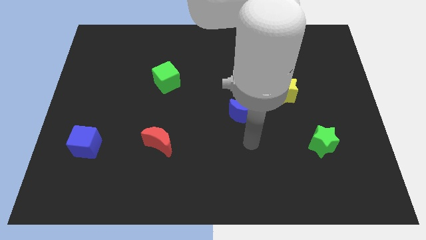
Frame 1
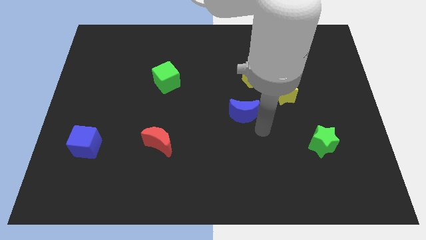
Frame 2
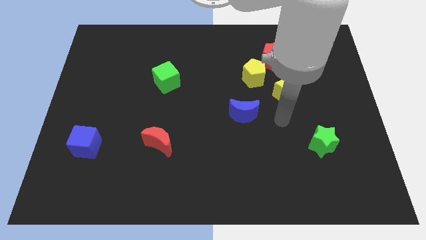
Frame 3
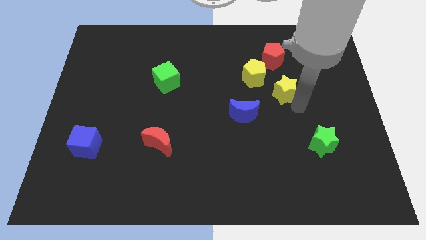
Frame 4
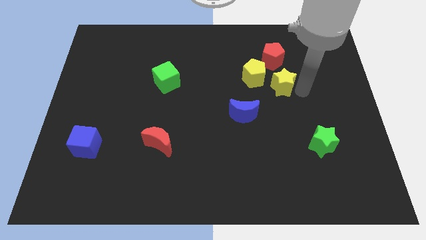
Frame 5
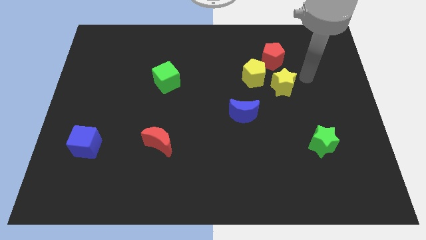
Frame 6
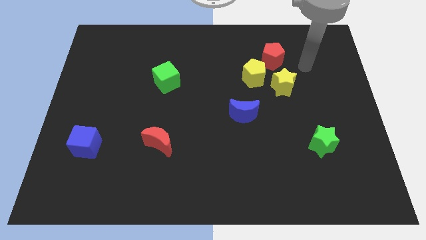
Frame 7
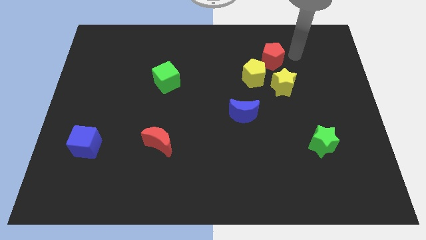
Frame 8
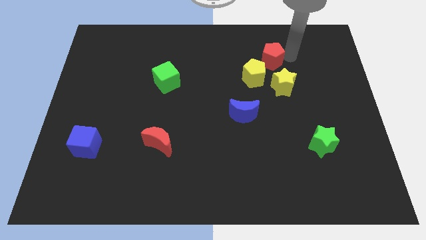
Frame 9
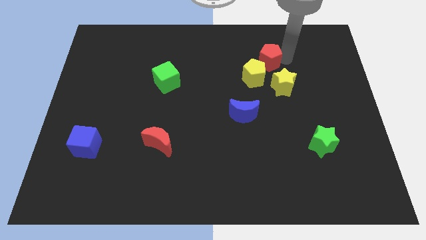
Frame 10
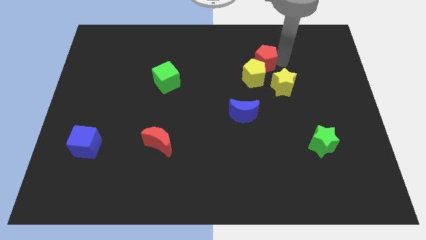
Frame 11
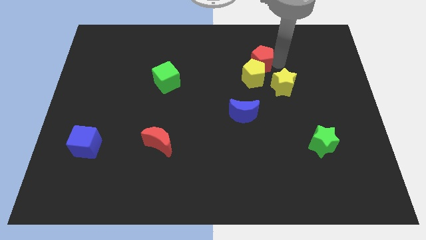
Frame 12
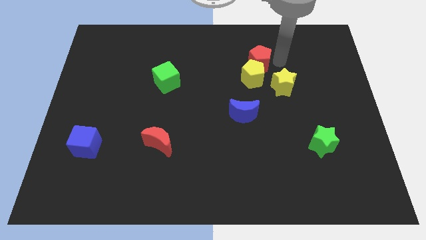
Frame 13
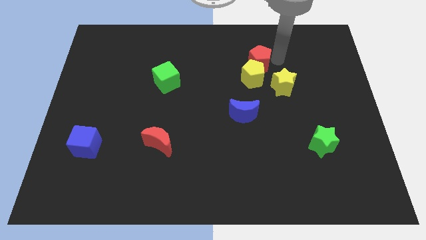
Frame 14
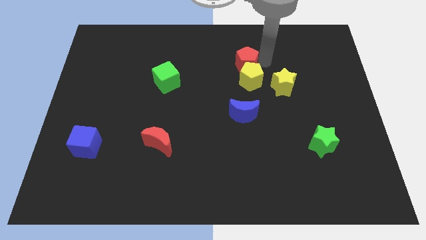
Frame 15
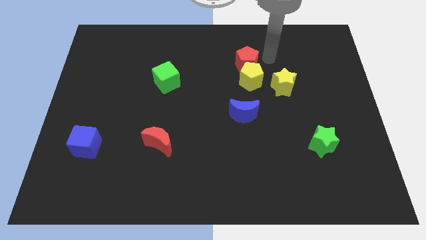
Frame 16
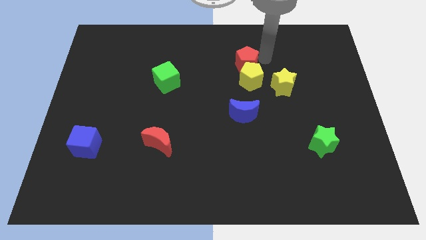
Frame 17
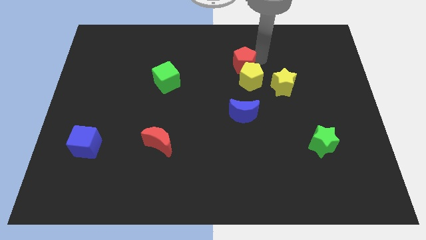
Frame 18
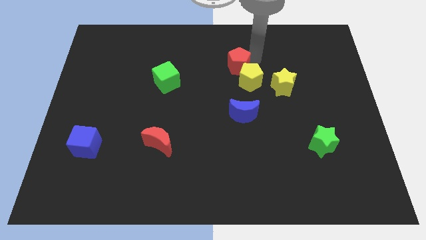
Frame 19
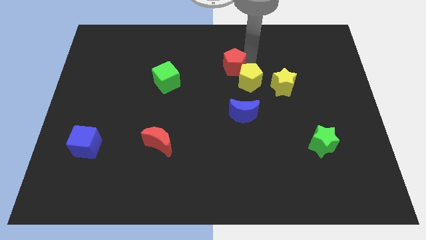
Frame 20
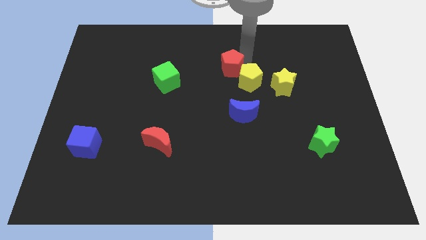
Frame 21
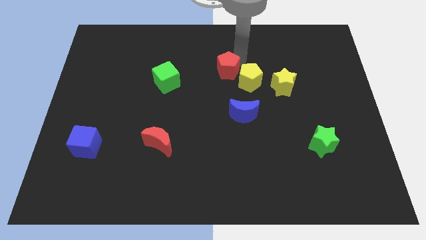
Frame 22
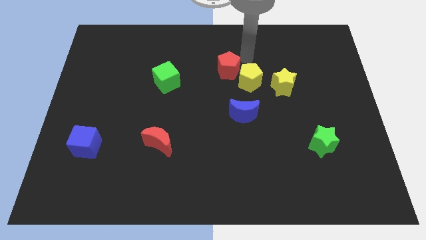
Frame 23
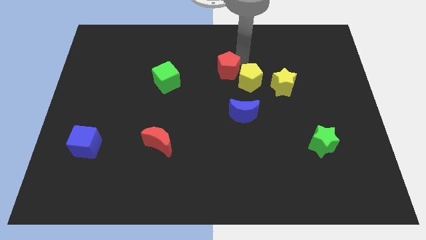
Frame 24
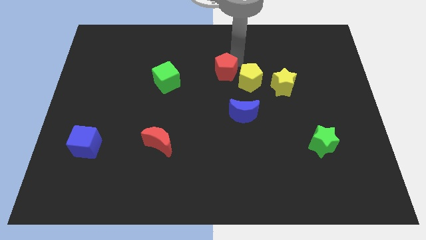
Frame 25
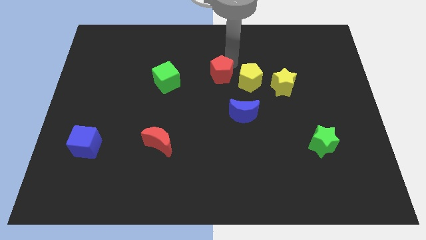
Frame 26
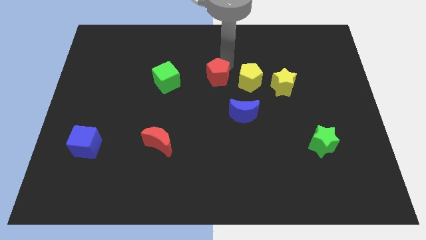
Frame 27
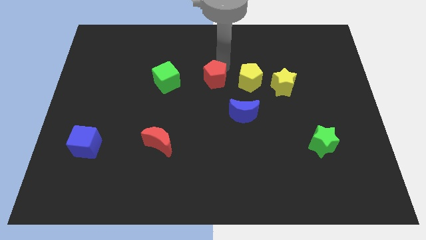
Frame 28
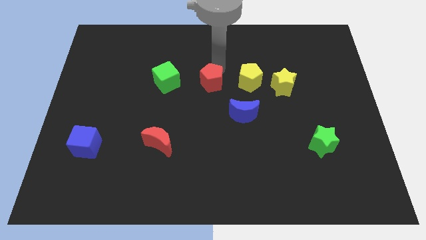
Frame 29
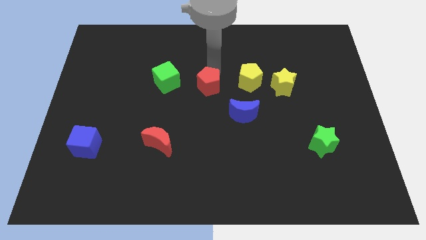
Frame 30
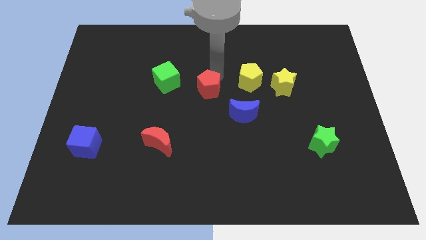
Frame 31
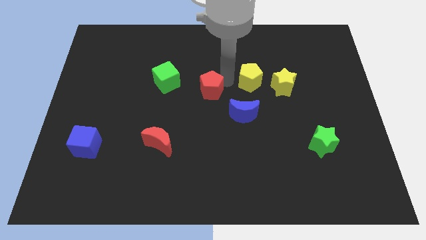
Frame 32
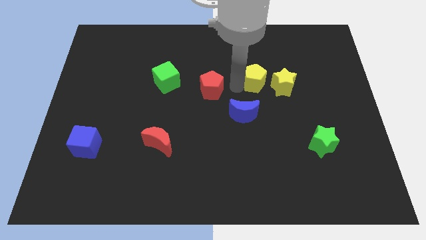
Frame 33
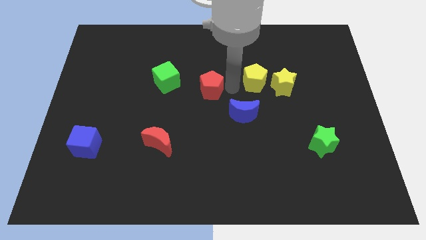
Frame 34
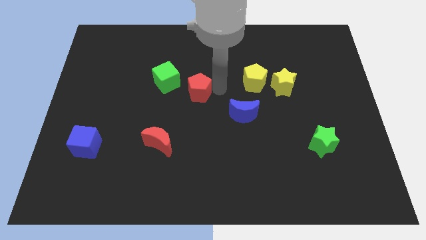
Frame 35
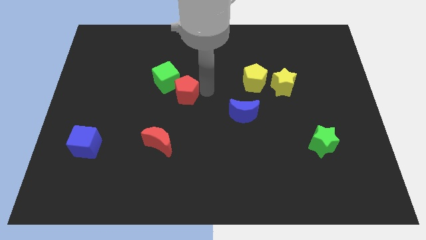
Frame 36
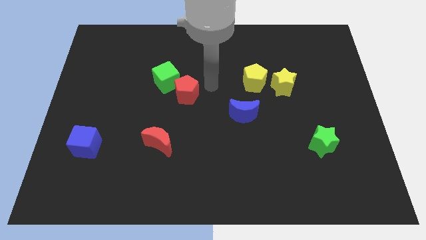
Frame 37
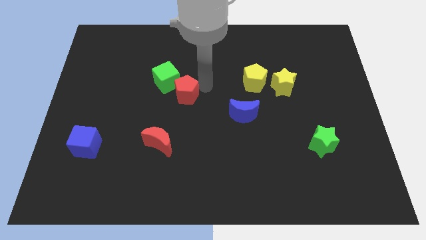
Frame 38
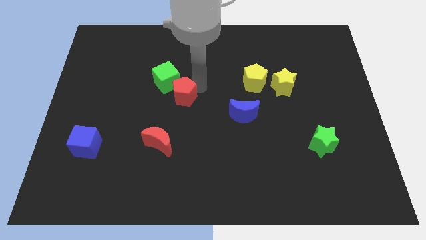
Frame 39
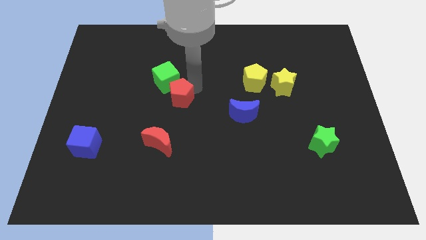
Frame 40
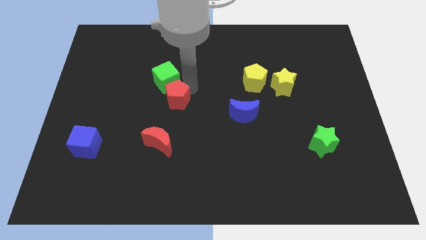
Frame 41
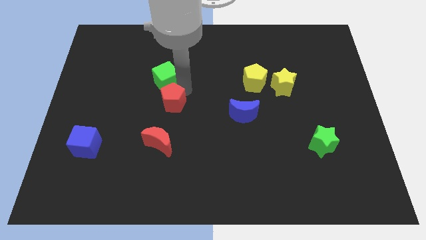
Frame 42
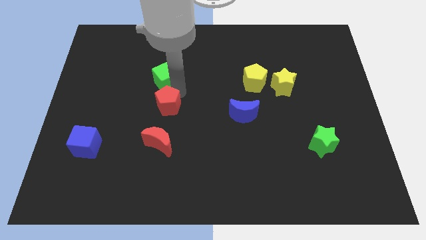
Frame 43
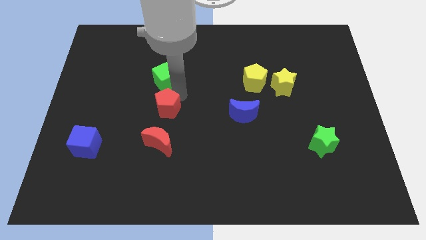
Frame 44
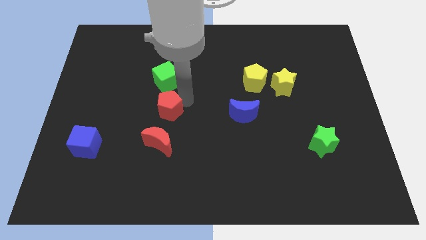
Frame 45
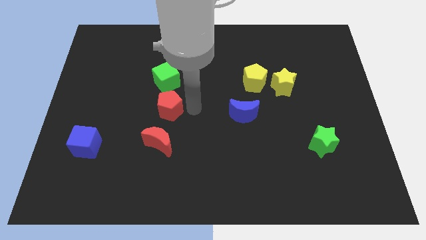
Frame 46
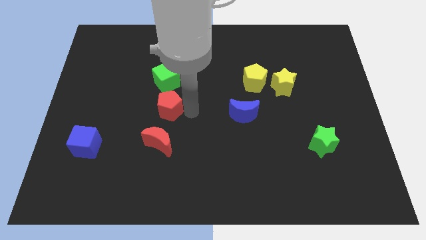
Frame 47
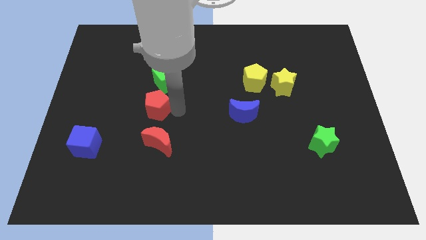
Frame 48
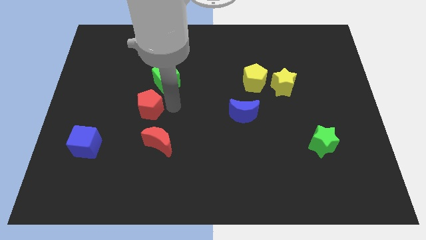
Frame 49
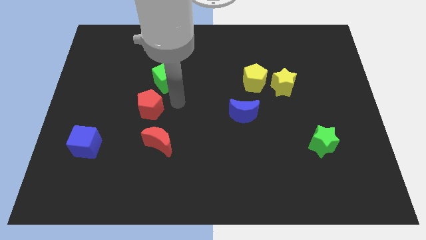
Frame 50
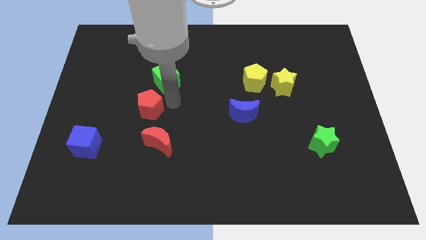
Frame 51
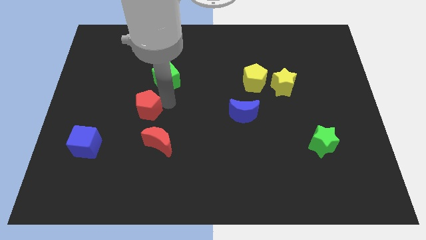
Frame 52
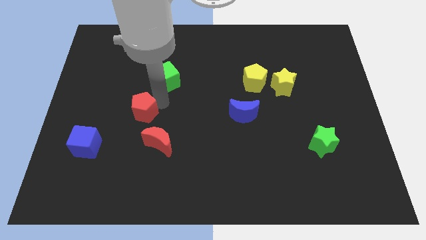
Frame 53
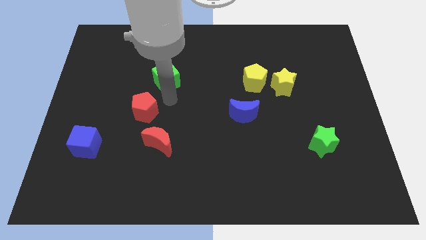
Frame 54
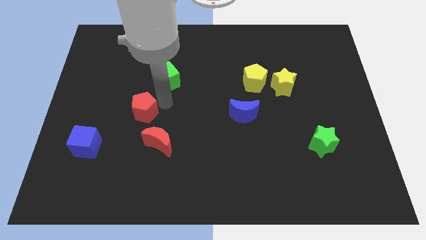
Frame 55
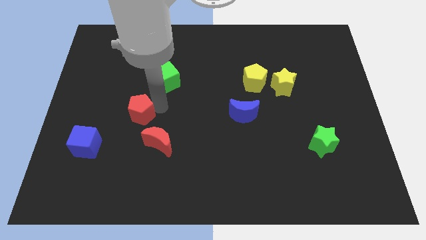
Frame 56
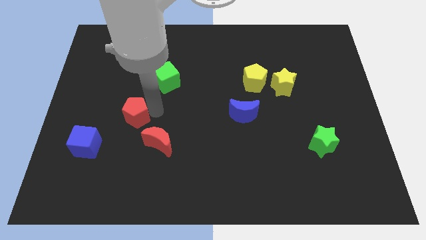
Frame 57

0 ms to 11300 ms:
put the red pentagon to the top right of the blue cube

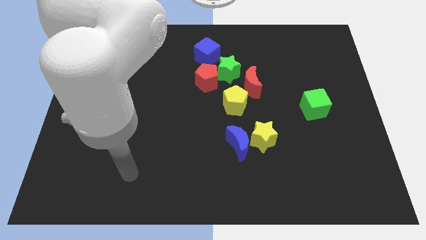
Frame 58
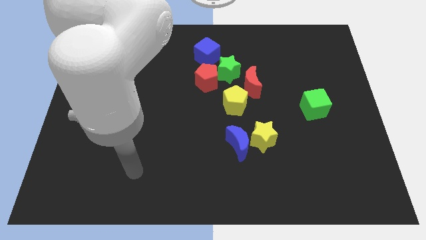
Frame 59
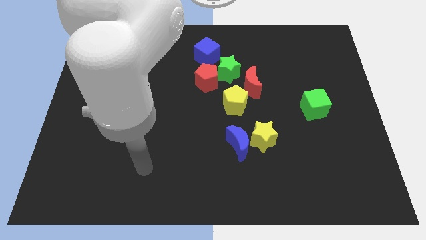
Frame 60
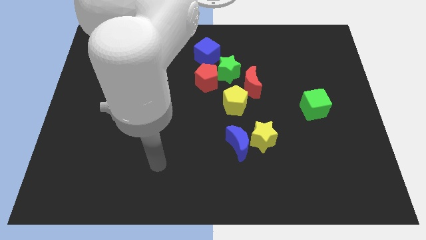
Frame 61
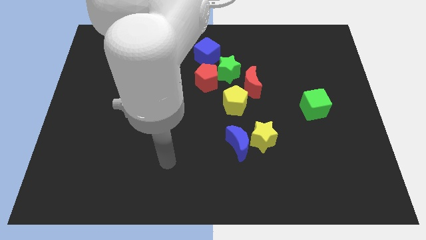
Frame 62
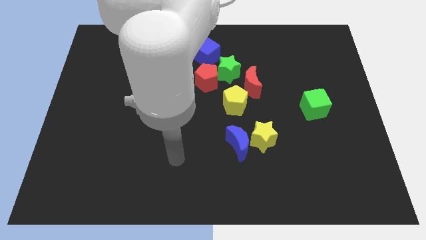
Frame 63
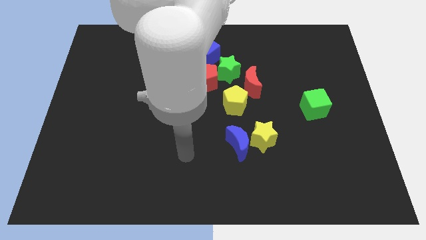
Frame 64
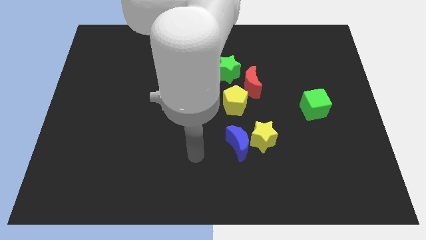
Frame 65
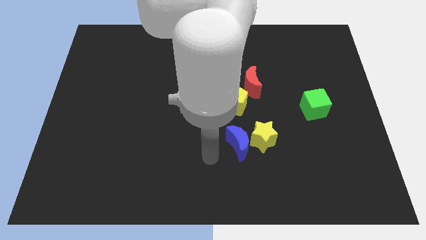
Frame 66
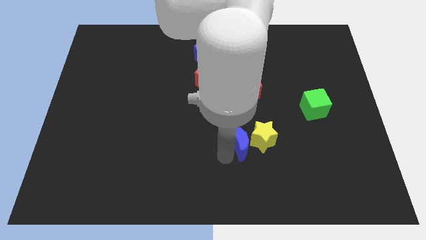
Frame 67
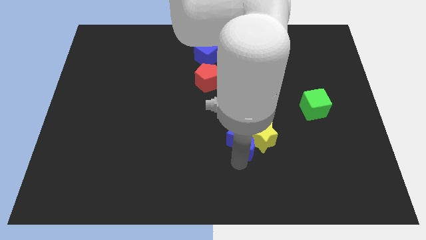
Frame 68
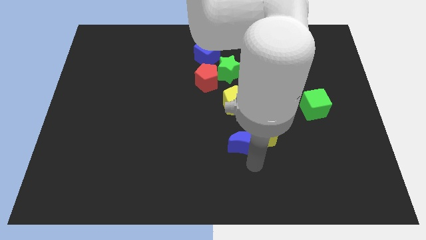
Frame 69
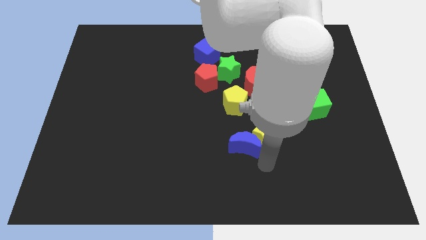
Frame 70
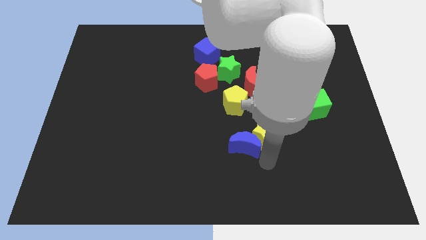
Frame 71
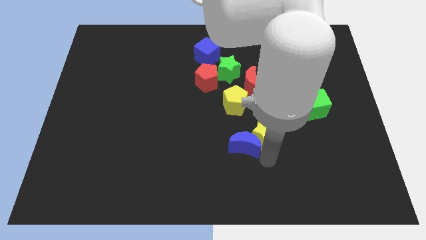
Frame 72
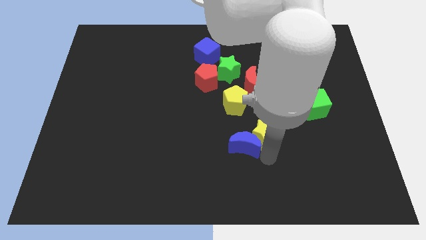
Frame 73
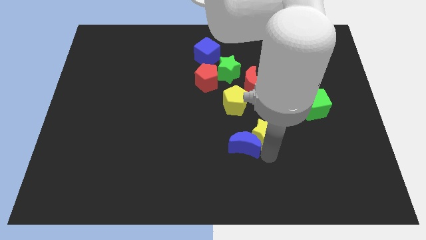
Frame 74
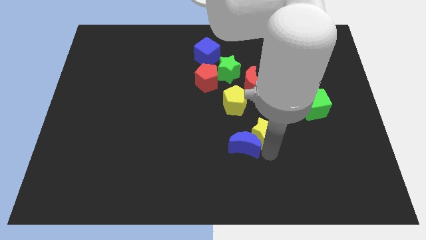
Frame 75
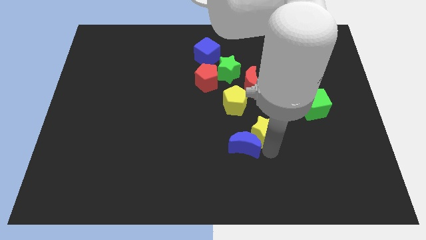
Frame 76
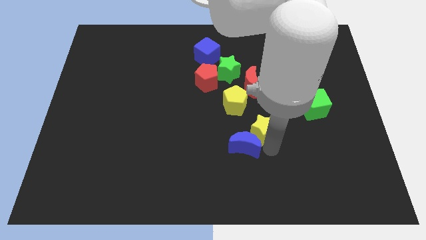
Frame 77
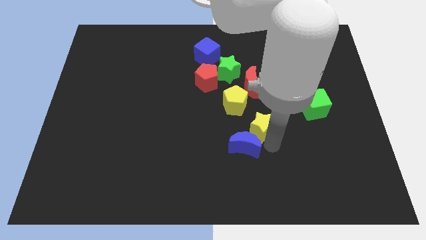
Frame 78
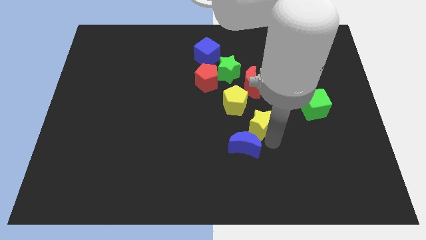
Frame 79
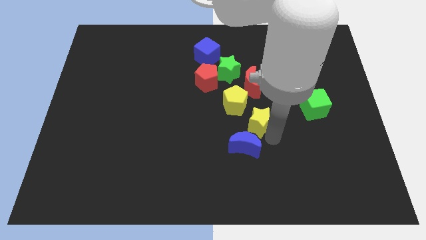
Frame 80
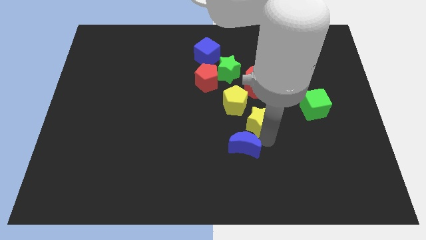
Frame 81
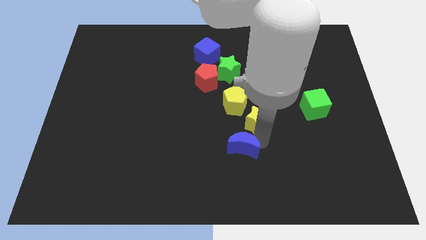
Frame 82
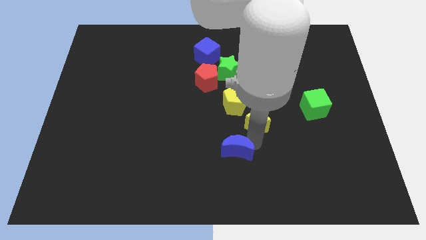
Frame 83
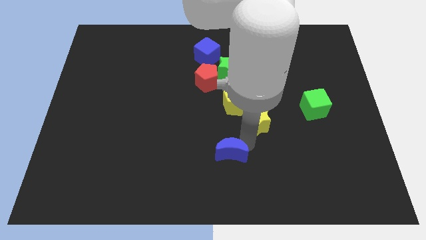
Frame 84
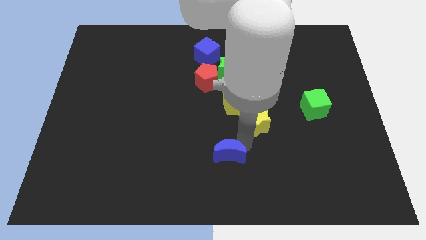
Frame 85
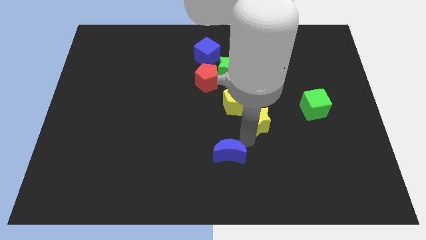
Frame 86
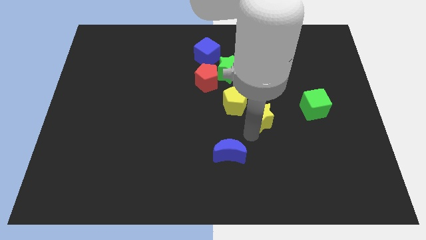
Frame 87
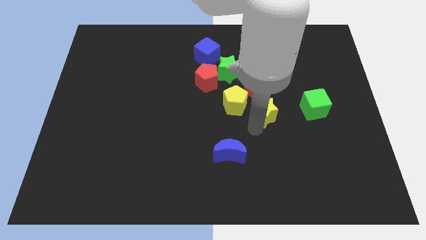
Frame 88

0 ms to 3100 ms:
move the yellow star diagonally down and to the right of the red moon
